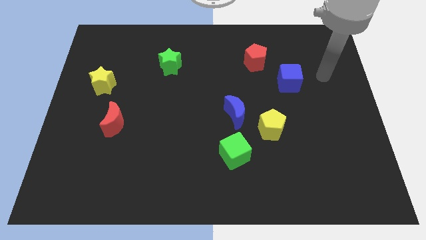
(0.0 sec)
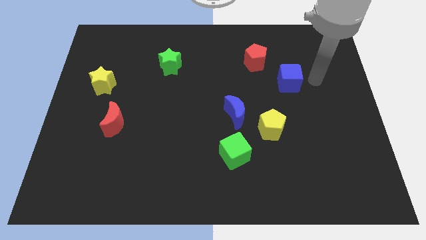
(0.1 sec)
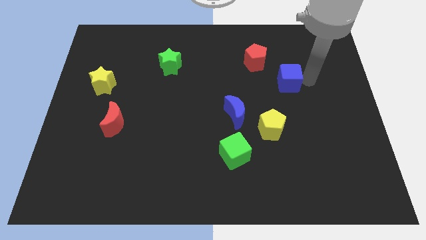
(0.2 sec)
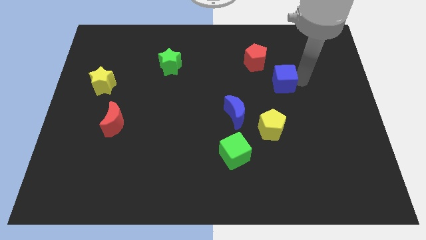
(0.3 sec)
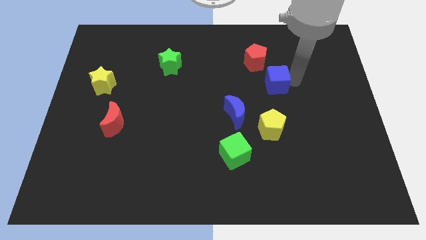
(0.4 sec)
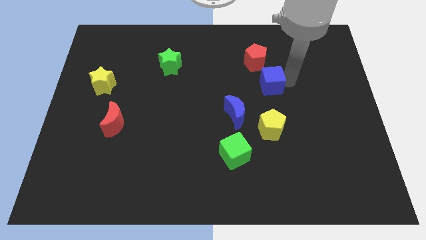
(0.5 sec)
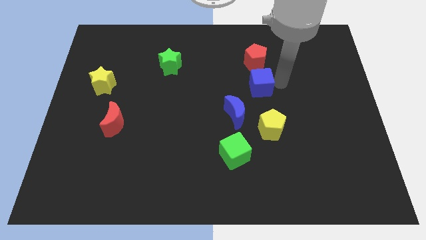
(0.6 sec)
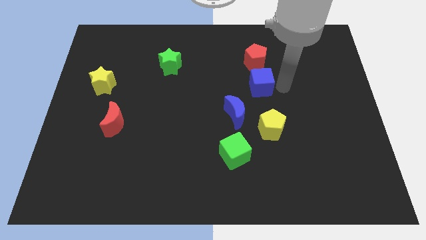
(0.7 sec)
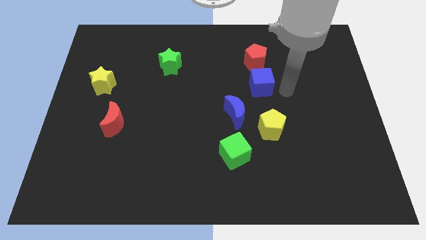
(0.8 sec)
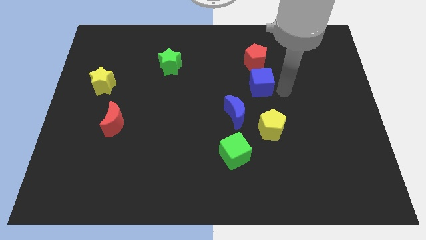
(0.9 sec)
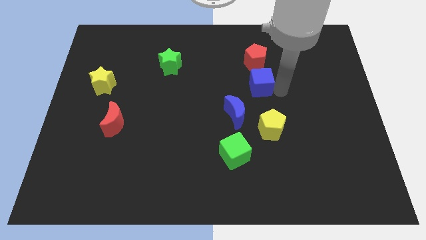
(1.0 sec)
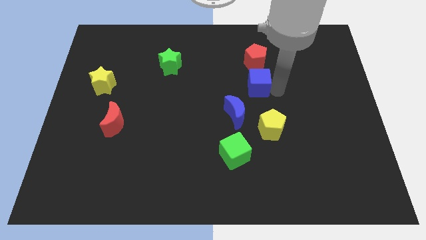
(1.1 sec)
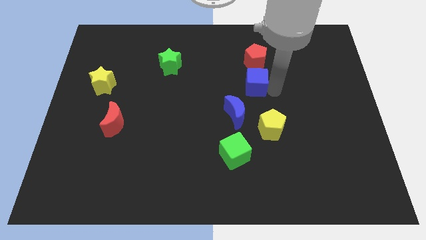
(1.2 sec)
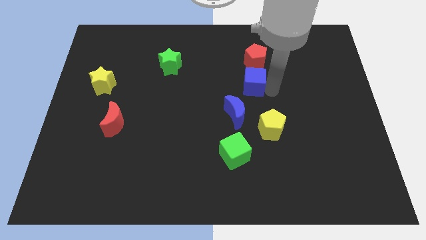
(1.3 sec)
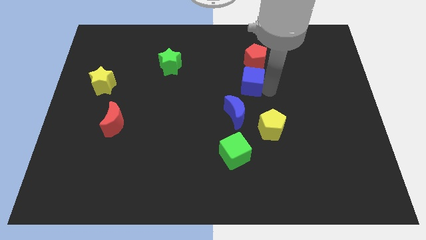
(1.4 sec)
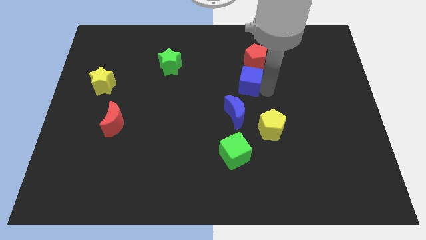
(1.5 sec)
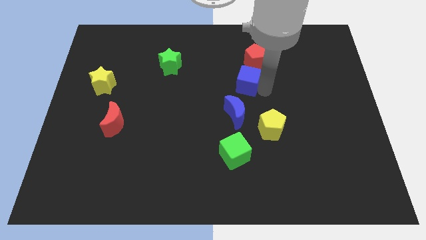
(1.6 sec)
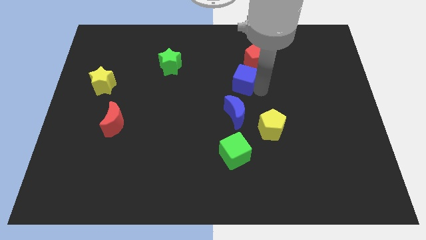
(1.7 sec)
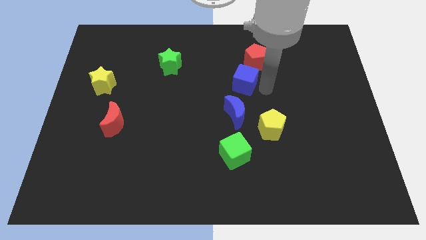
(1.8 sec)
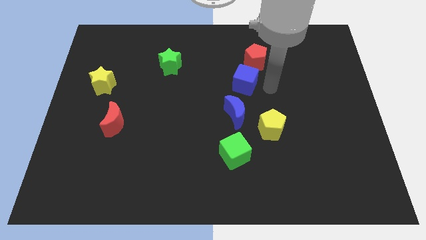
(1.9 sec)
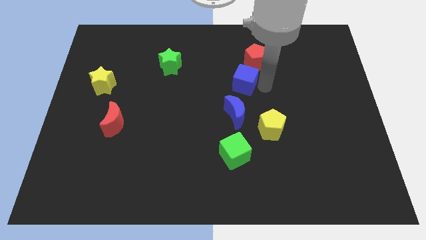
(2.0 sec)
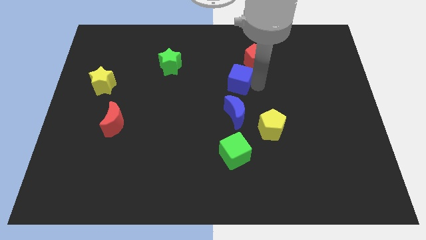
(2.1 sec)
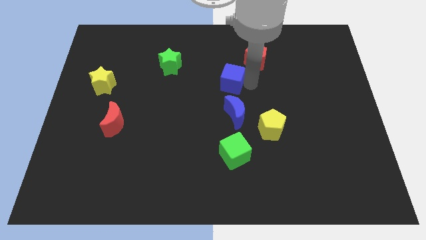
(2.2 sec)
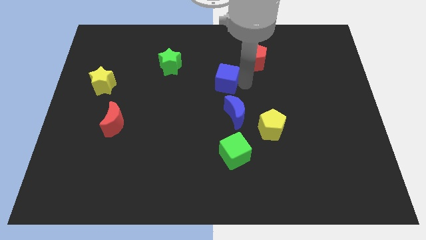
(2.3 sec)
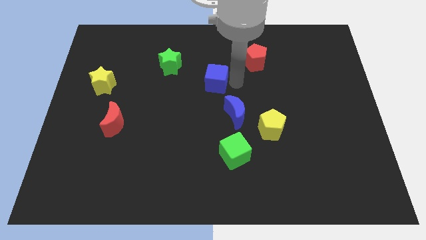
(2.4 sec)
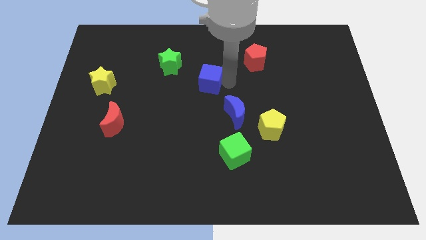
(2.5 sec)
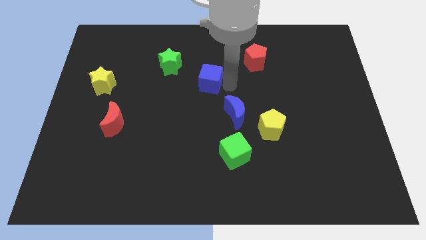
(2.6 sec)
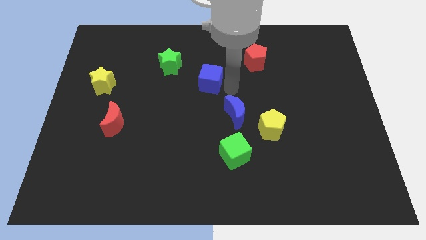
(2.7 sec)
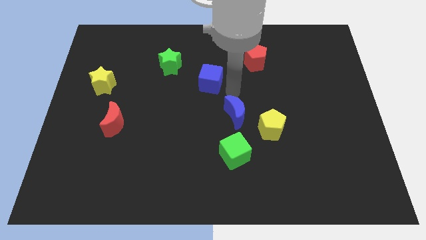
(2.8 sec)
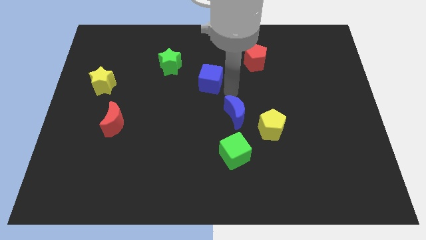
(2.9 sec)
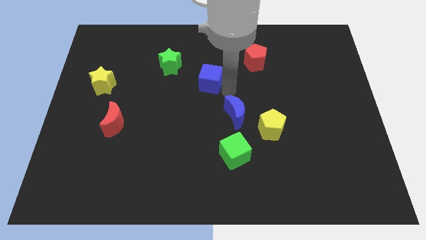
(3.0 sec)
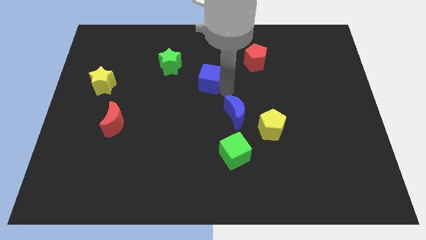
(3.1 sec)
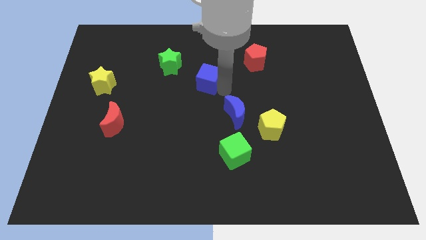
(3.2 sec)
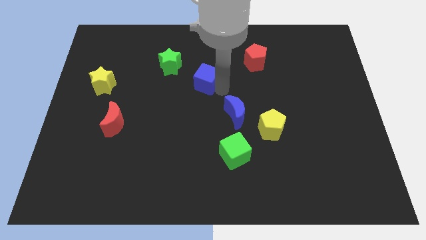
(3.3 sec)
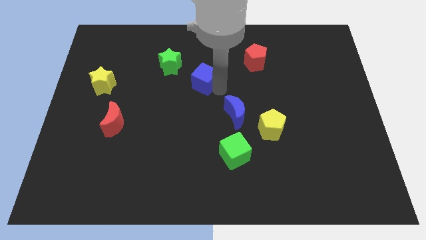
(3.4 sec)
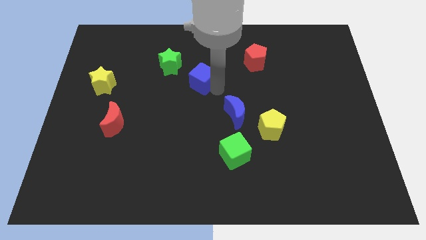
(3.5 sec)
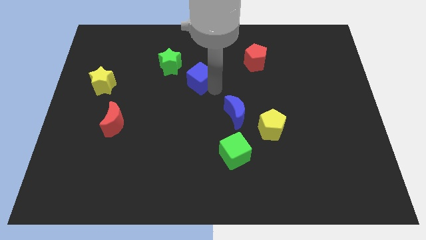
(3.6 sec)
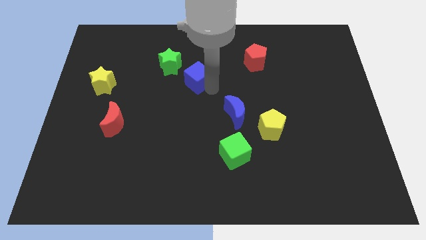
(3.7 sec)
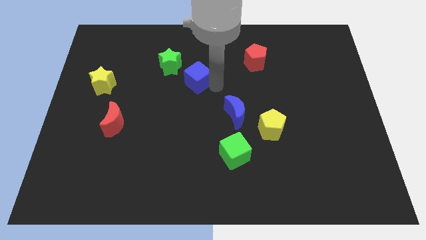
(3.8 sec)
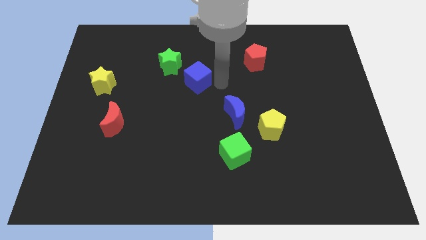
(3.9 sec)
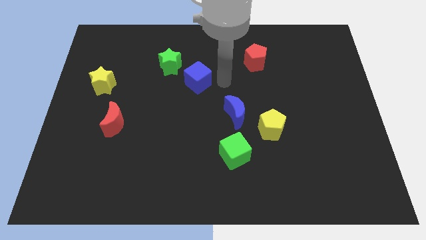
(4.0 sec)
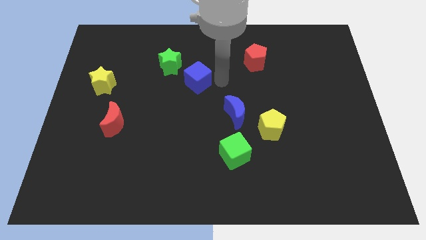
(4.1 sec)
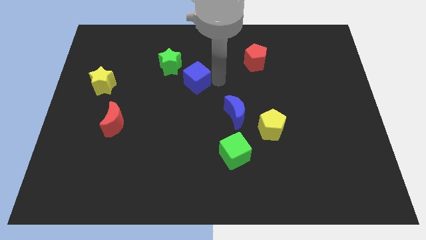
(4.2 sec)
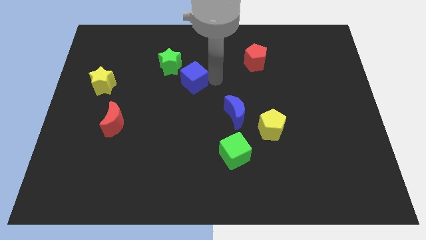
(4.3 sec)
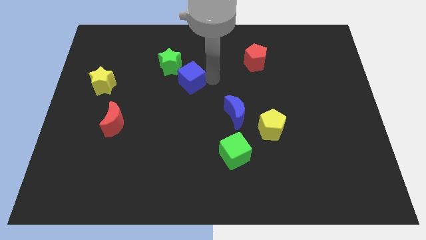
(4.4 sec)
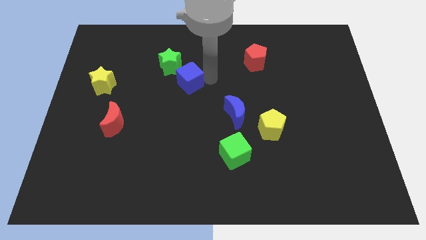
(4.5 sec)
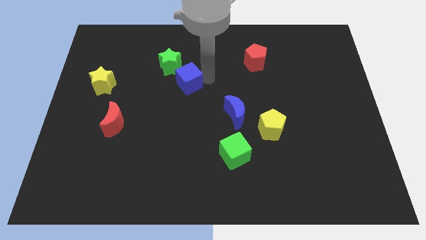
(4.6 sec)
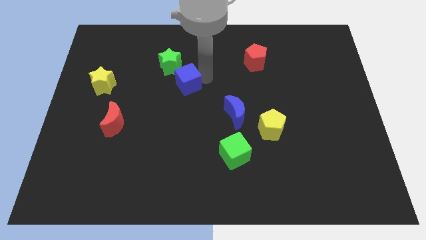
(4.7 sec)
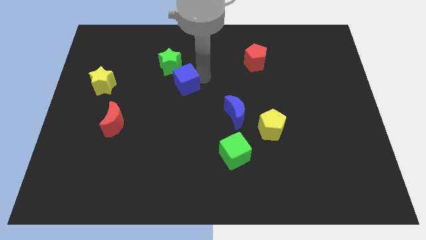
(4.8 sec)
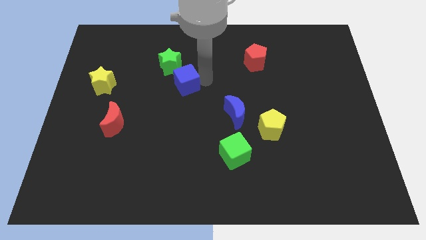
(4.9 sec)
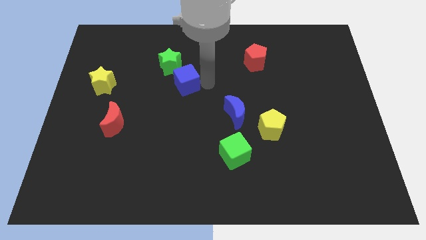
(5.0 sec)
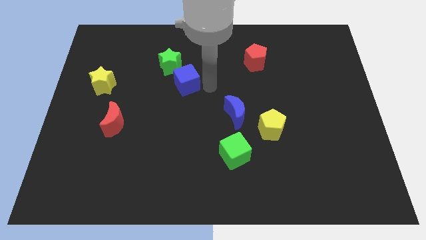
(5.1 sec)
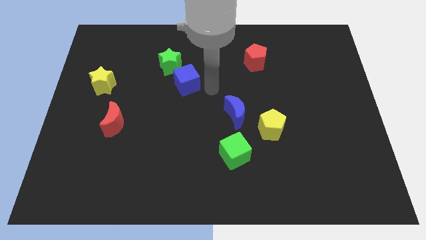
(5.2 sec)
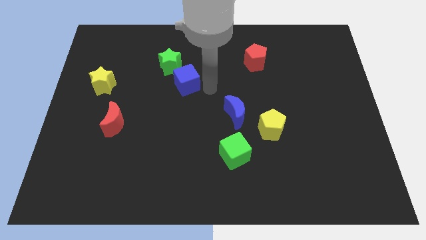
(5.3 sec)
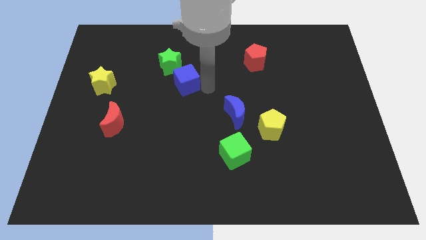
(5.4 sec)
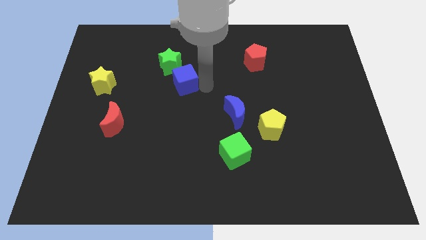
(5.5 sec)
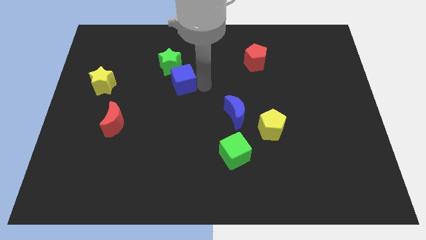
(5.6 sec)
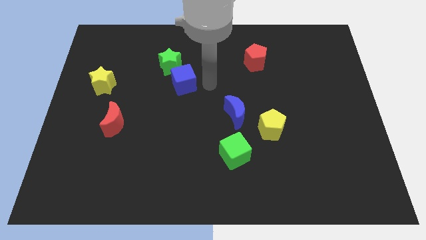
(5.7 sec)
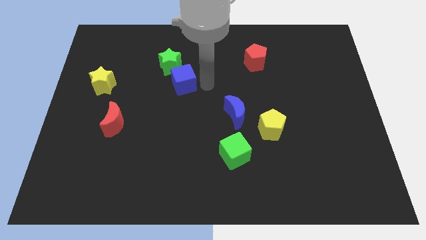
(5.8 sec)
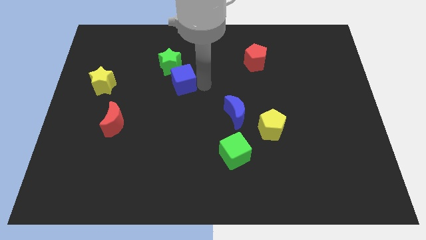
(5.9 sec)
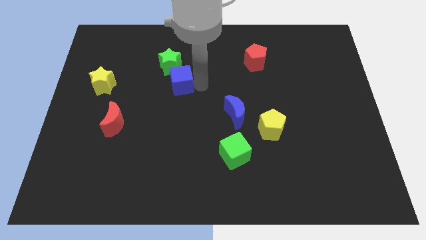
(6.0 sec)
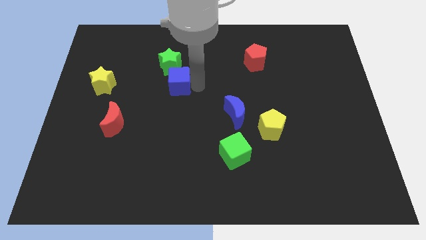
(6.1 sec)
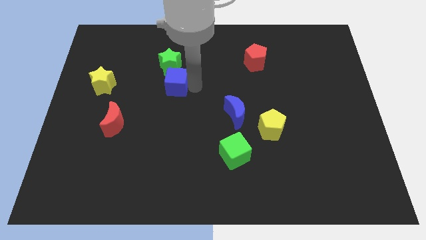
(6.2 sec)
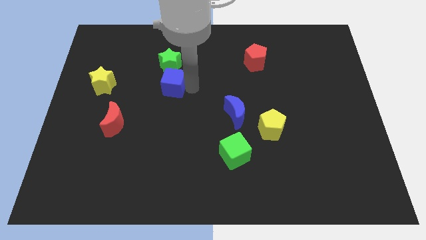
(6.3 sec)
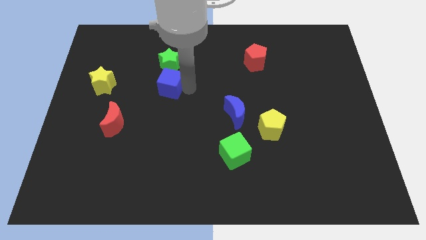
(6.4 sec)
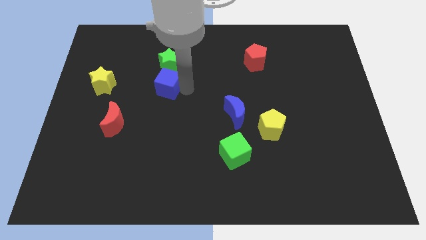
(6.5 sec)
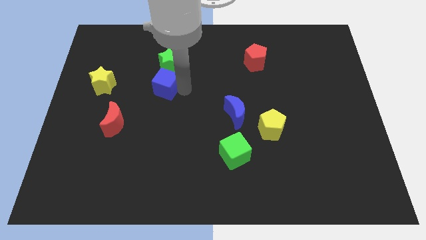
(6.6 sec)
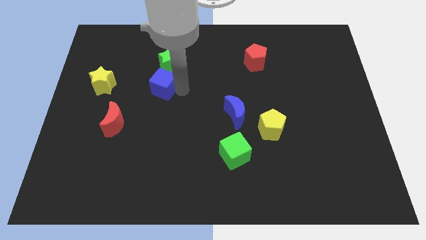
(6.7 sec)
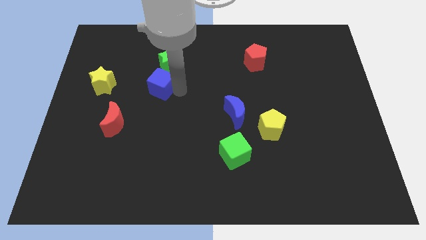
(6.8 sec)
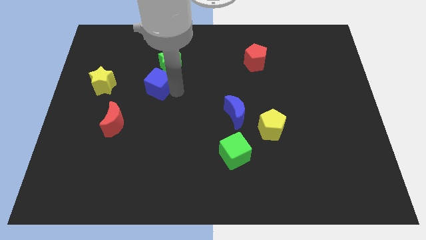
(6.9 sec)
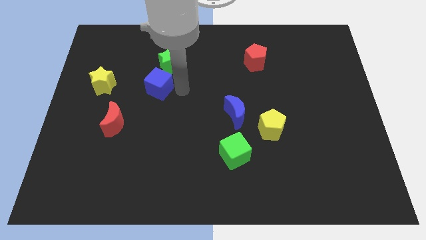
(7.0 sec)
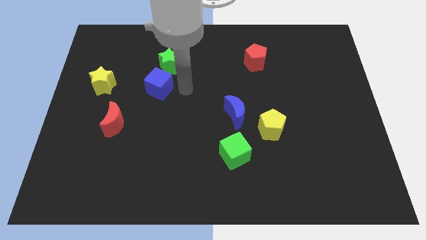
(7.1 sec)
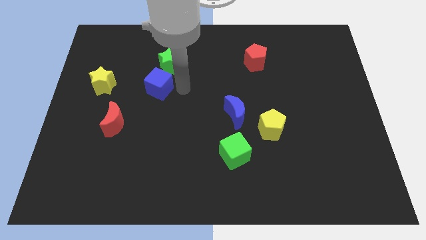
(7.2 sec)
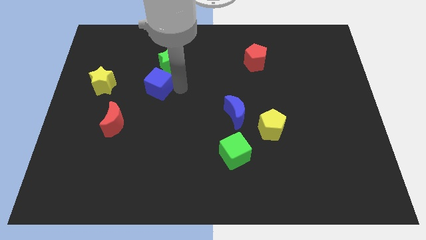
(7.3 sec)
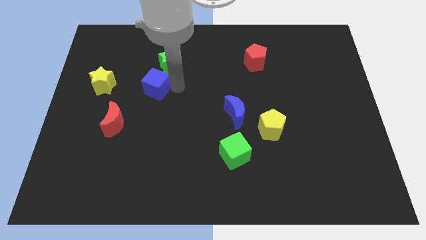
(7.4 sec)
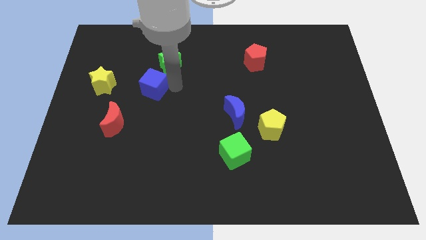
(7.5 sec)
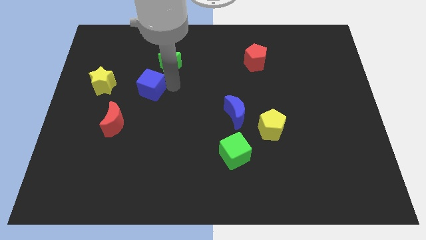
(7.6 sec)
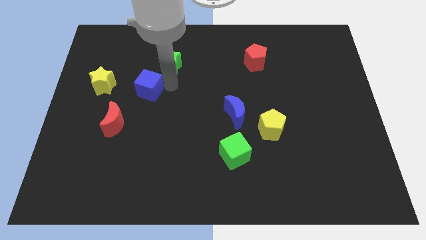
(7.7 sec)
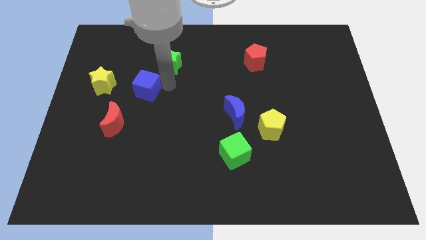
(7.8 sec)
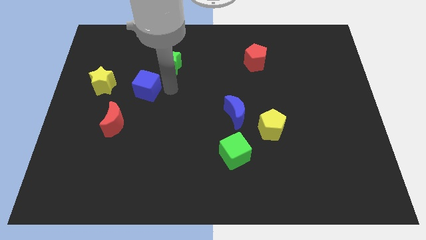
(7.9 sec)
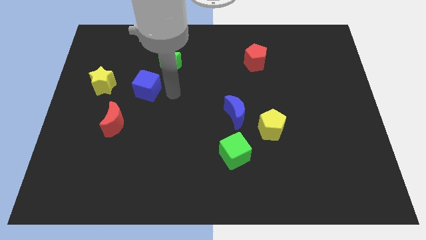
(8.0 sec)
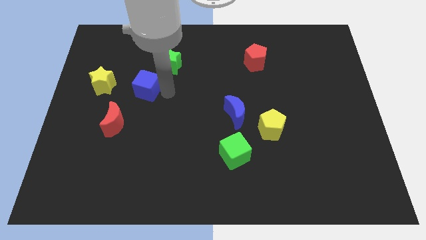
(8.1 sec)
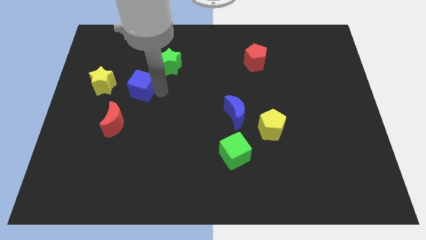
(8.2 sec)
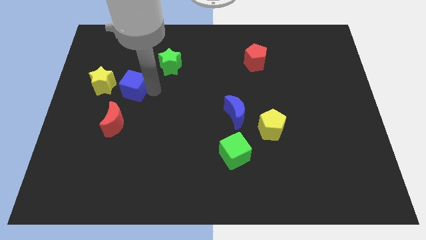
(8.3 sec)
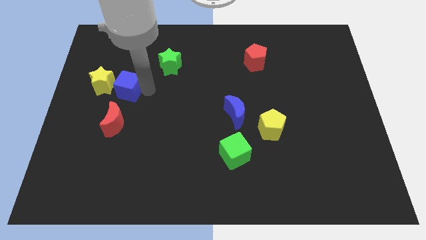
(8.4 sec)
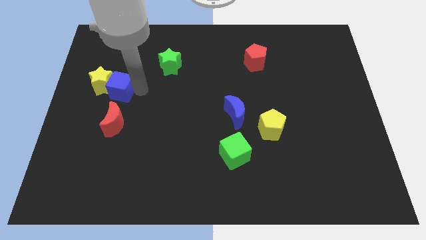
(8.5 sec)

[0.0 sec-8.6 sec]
push the blue cube towards the yellow star
